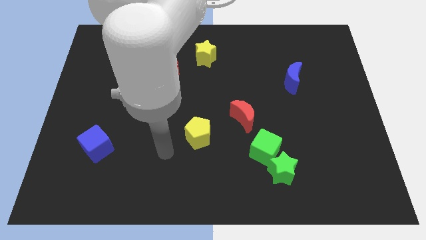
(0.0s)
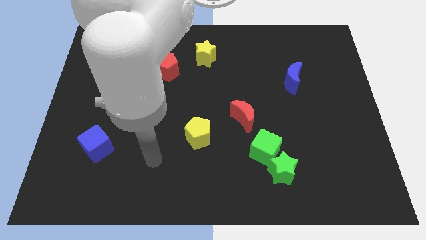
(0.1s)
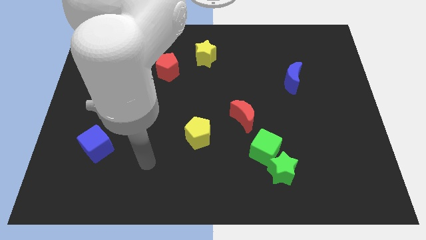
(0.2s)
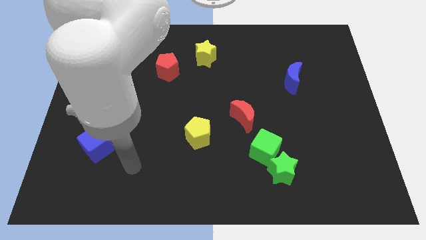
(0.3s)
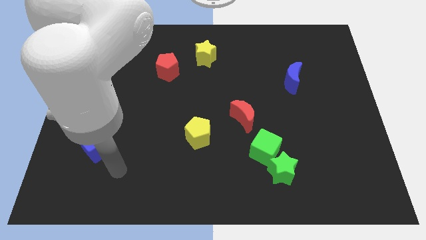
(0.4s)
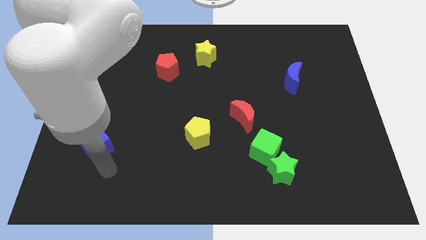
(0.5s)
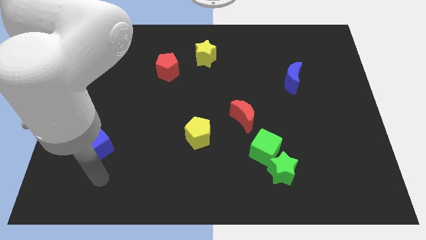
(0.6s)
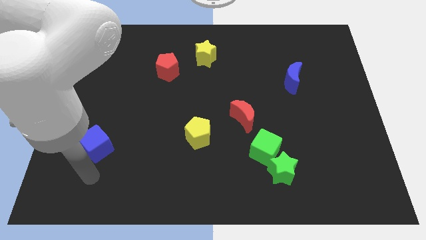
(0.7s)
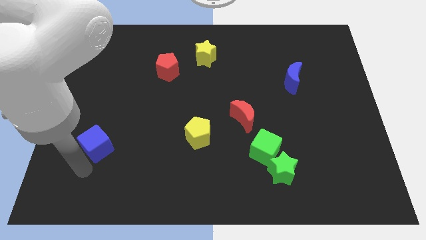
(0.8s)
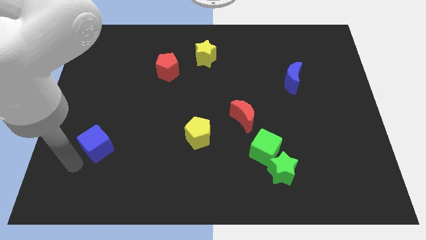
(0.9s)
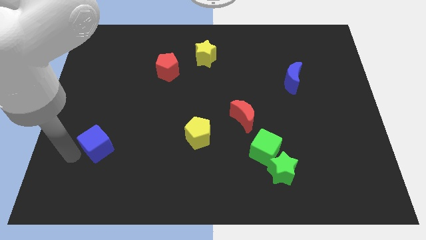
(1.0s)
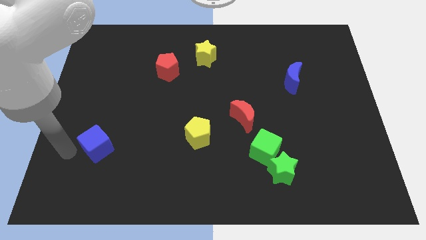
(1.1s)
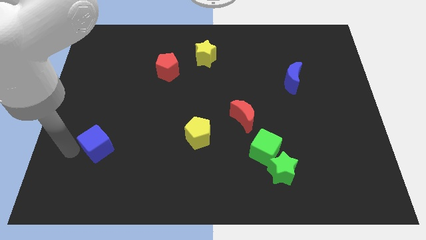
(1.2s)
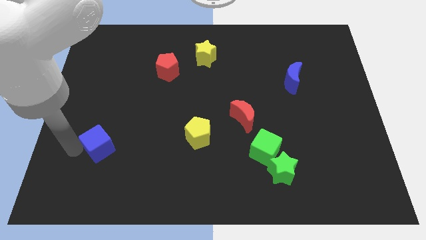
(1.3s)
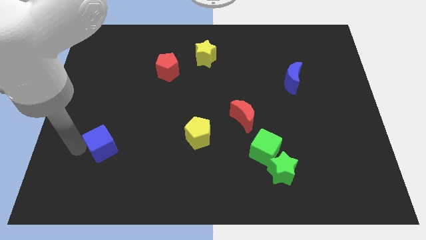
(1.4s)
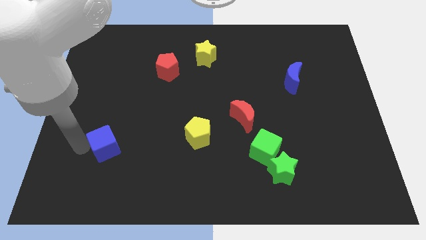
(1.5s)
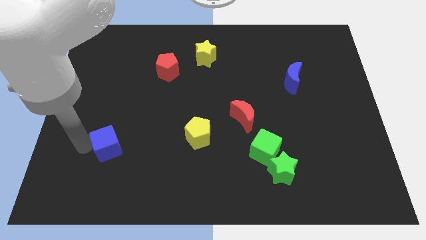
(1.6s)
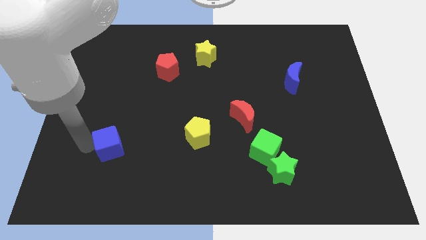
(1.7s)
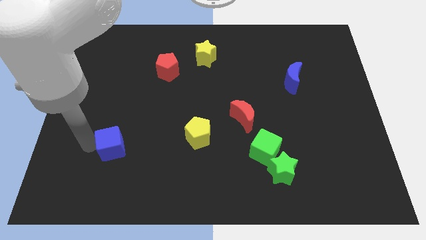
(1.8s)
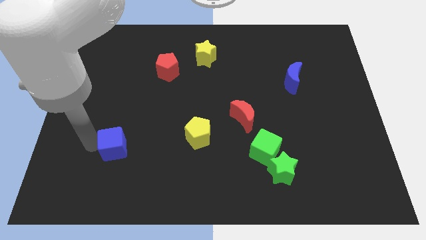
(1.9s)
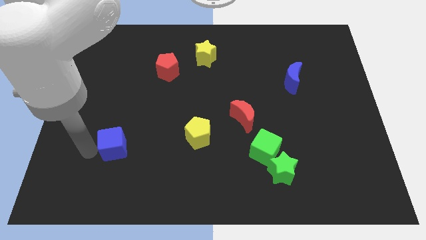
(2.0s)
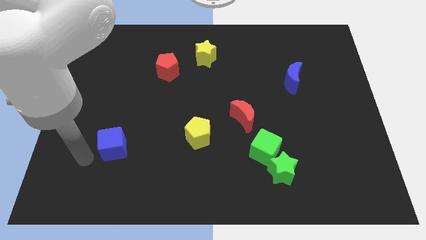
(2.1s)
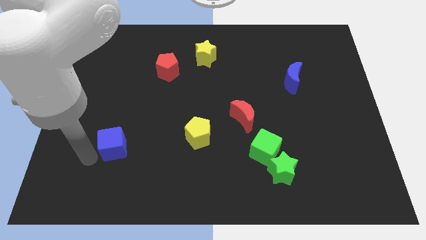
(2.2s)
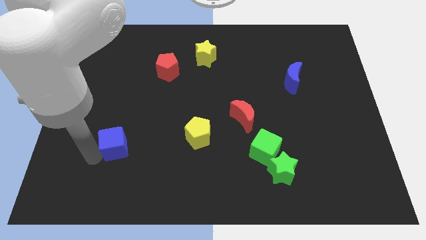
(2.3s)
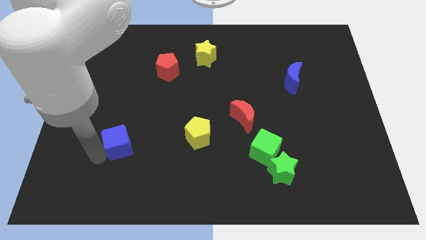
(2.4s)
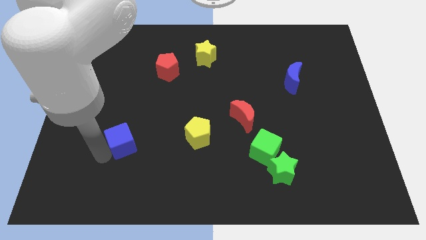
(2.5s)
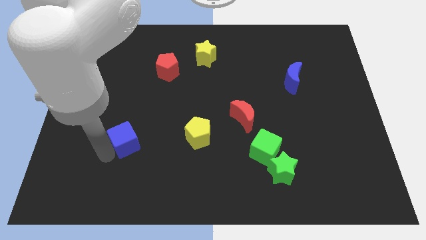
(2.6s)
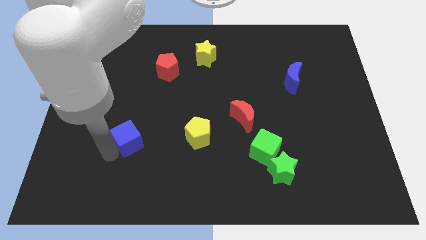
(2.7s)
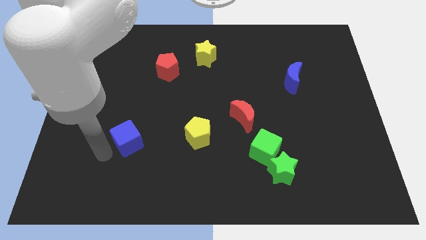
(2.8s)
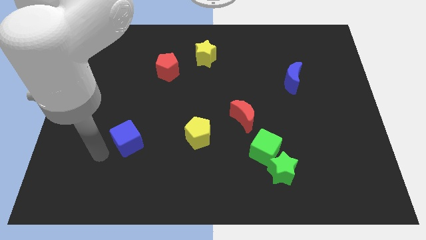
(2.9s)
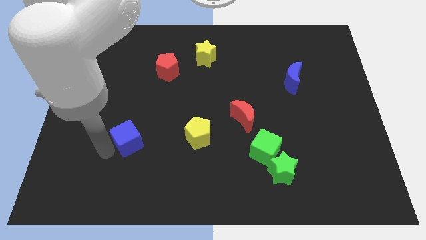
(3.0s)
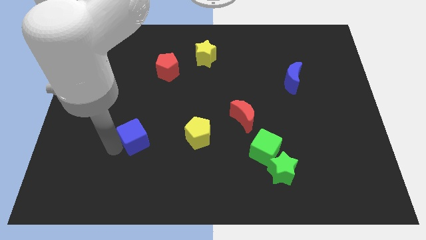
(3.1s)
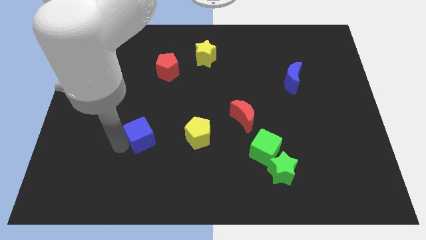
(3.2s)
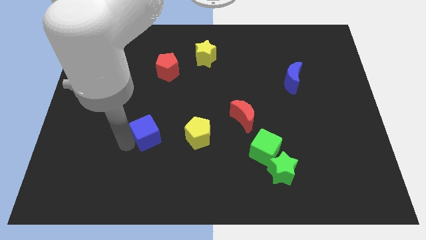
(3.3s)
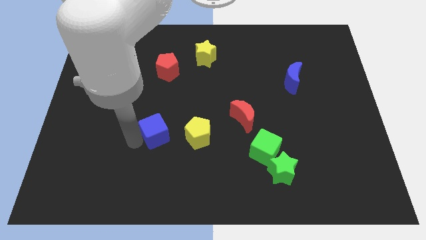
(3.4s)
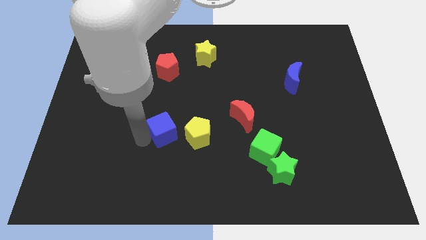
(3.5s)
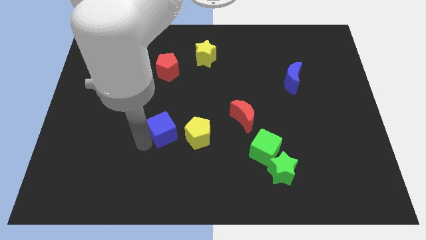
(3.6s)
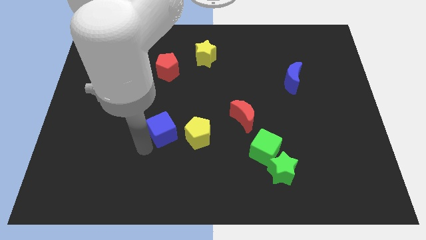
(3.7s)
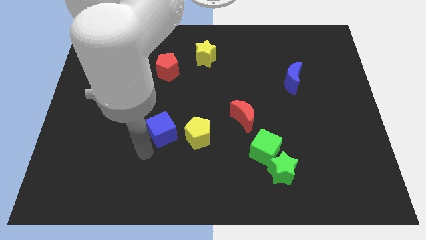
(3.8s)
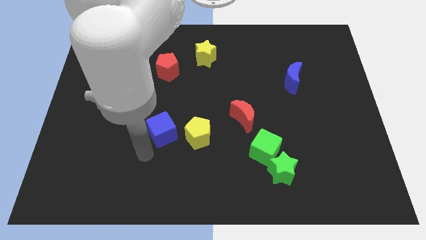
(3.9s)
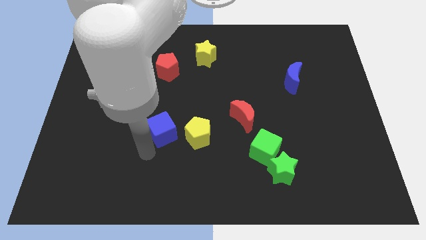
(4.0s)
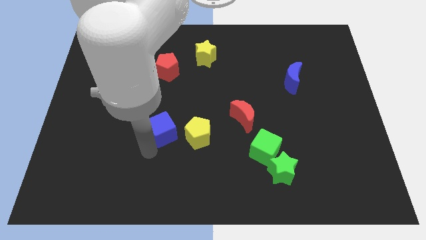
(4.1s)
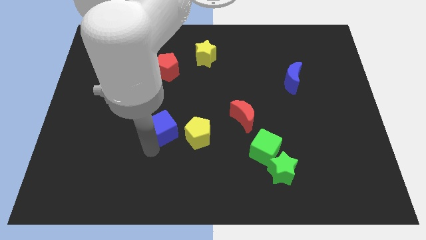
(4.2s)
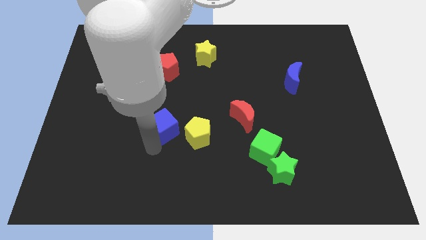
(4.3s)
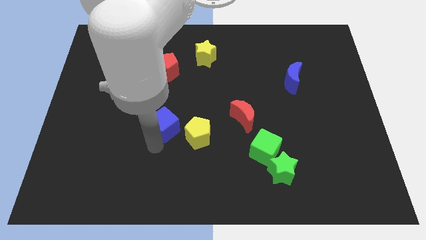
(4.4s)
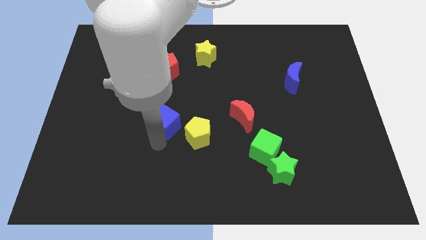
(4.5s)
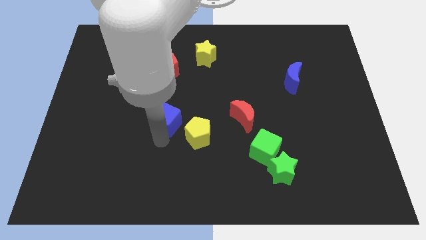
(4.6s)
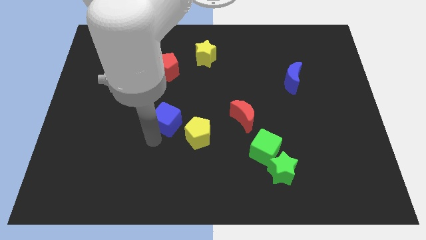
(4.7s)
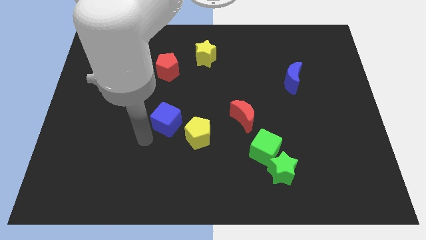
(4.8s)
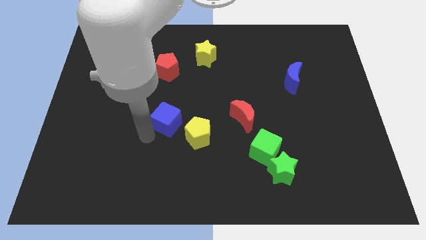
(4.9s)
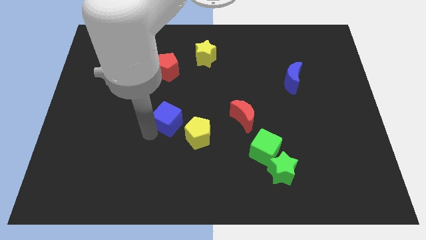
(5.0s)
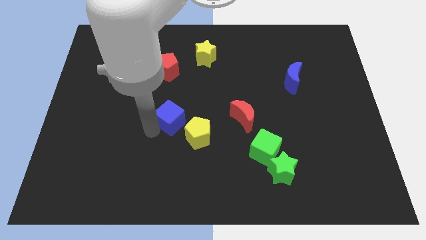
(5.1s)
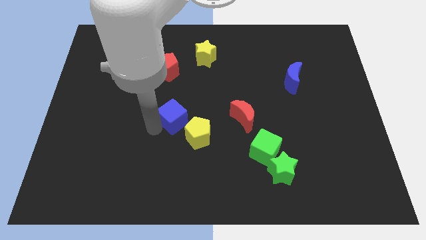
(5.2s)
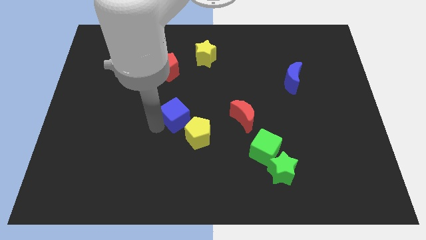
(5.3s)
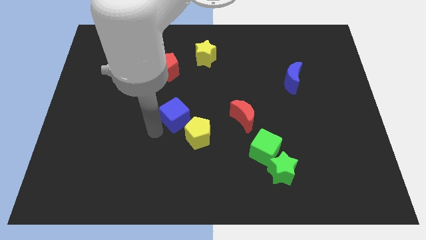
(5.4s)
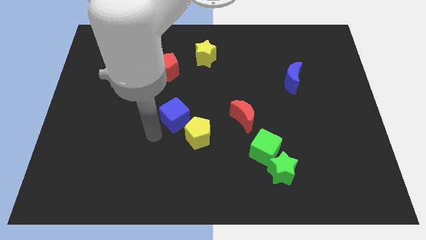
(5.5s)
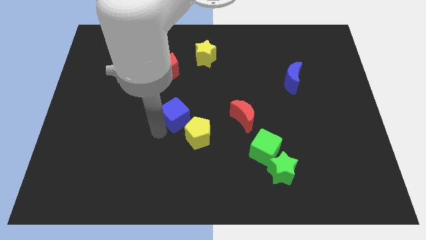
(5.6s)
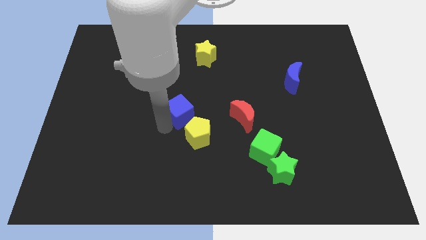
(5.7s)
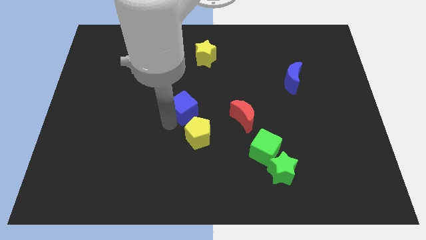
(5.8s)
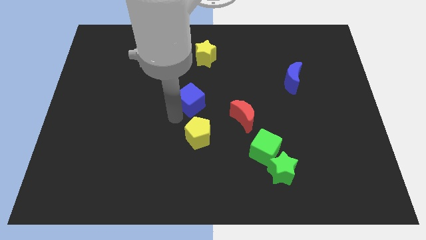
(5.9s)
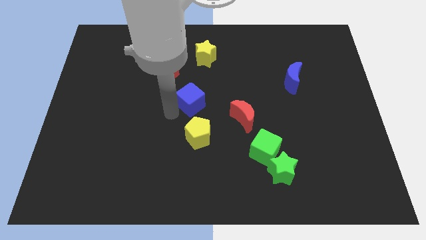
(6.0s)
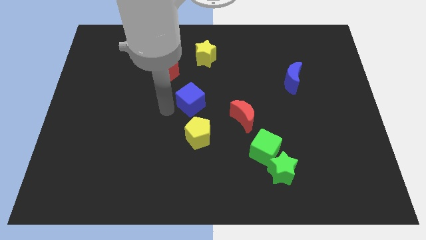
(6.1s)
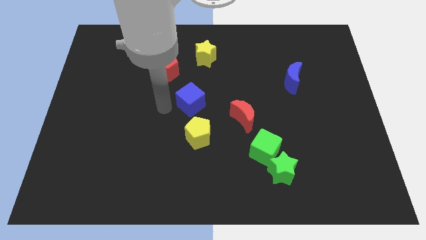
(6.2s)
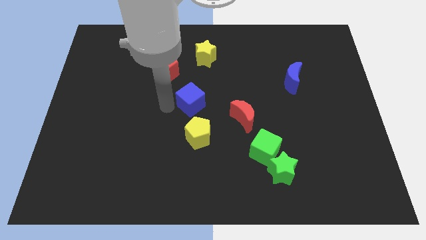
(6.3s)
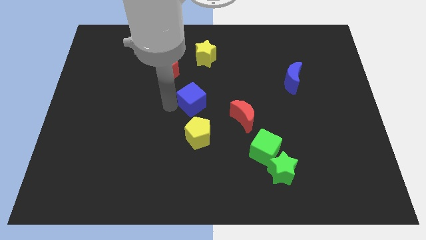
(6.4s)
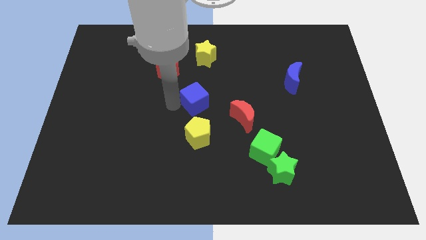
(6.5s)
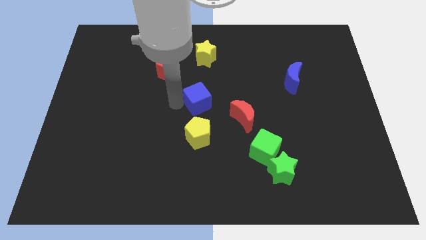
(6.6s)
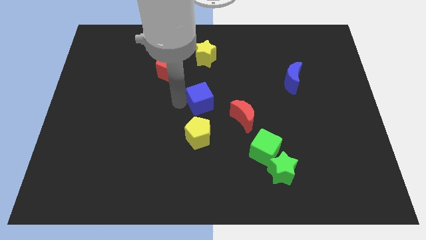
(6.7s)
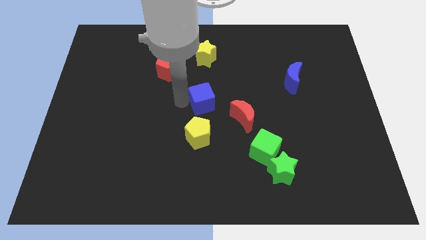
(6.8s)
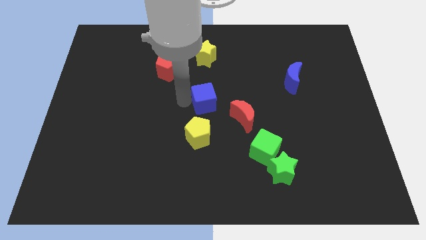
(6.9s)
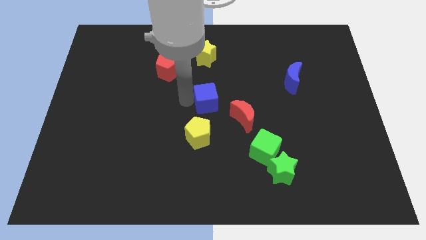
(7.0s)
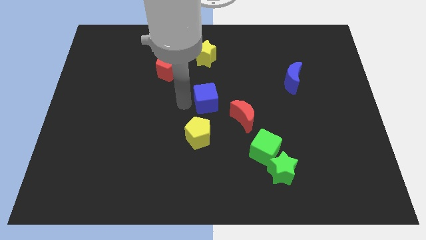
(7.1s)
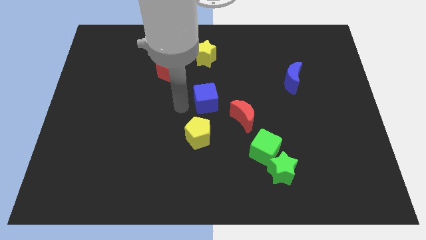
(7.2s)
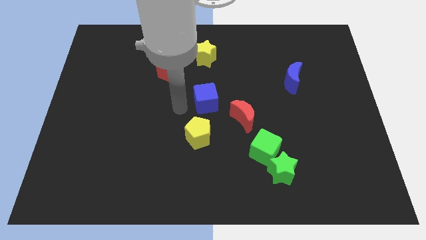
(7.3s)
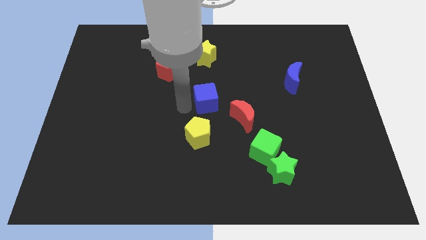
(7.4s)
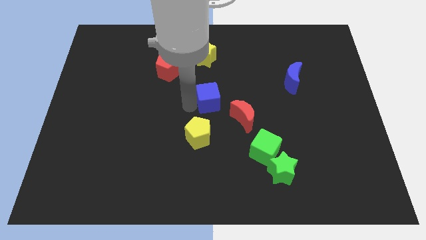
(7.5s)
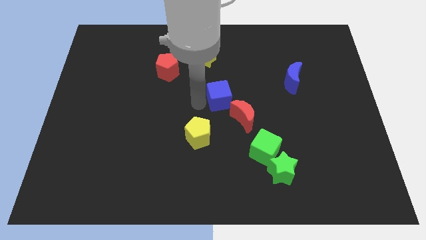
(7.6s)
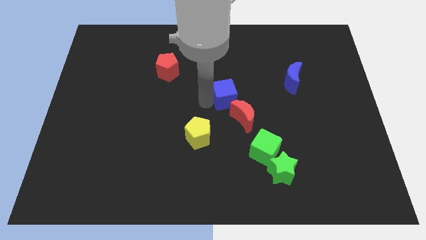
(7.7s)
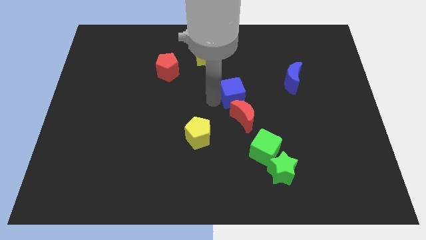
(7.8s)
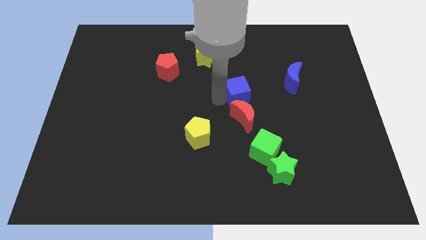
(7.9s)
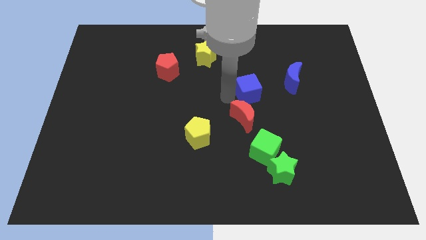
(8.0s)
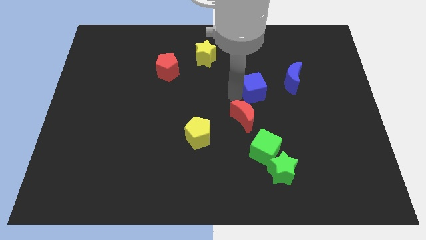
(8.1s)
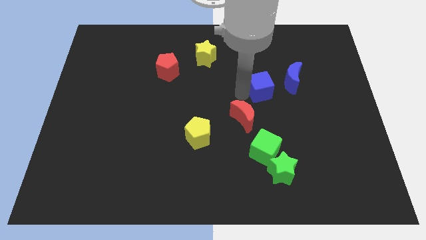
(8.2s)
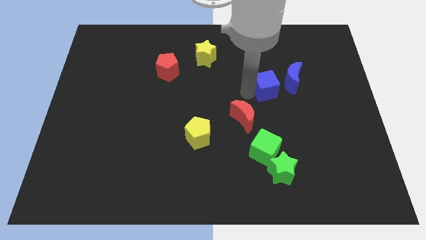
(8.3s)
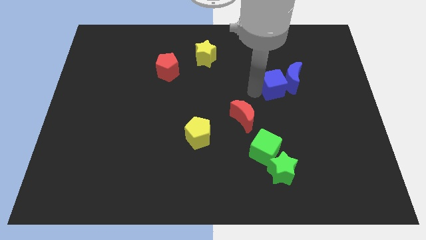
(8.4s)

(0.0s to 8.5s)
slide the blue cube close to the blue moon
